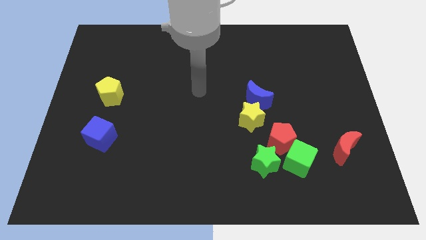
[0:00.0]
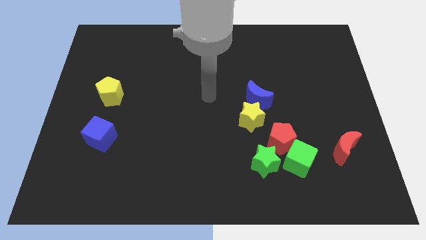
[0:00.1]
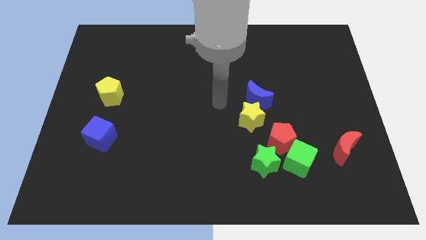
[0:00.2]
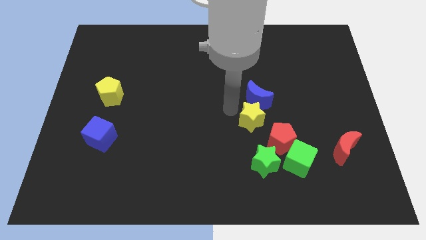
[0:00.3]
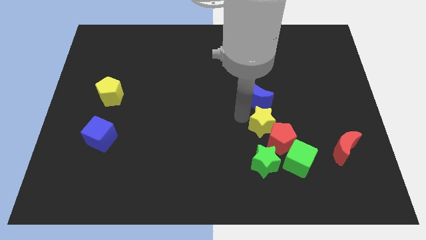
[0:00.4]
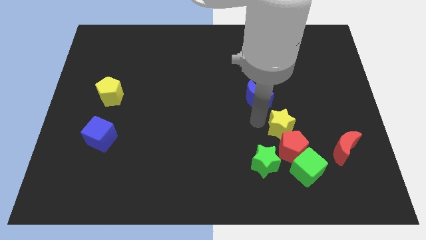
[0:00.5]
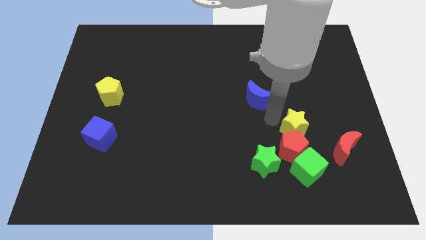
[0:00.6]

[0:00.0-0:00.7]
pull the blue moon apart from the yellow star

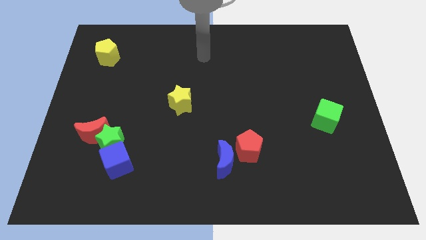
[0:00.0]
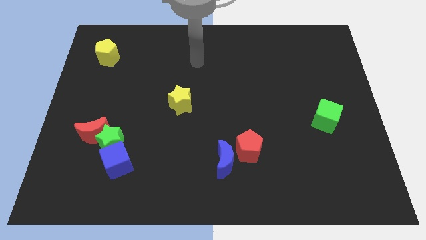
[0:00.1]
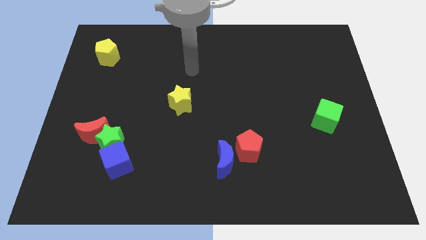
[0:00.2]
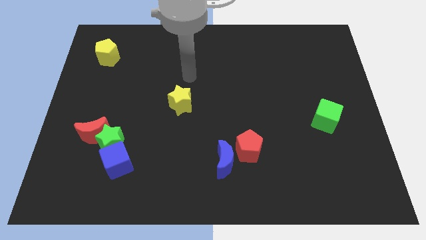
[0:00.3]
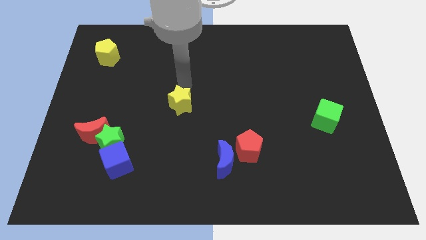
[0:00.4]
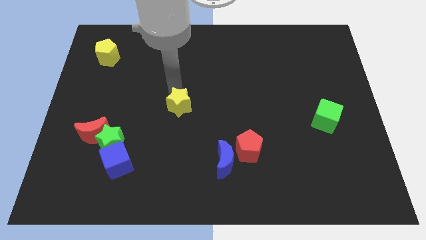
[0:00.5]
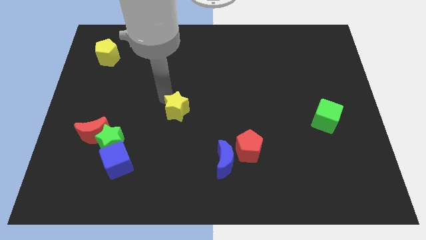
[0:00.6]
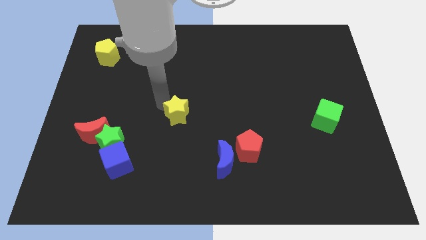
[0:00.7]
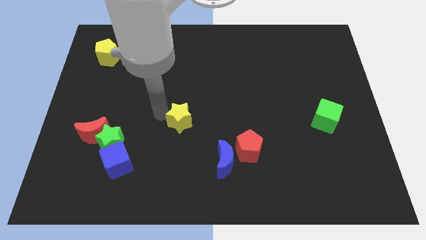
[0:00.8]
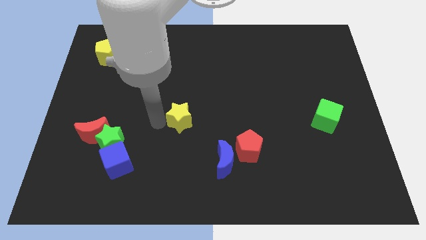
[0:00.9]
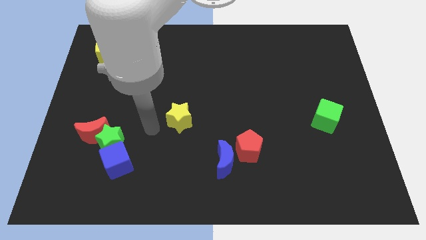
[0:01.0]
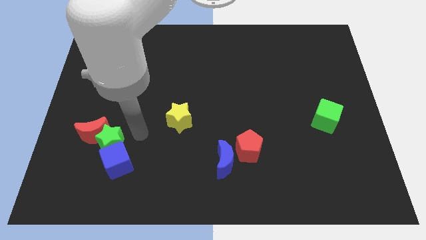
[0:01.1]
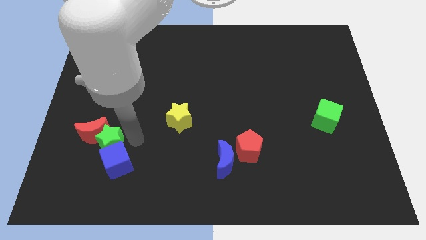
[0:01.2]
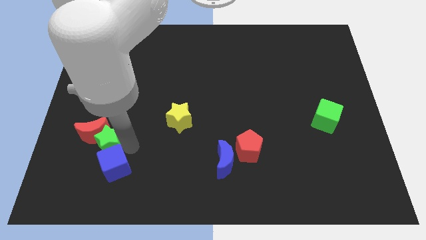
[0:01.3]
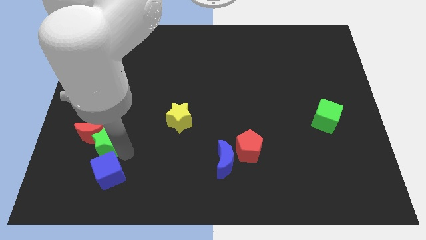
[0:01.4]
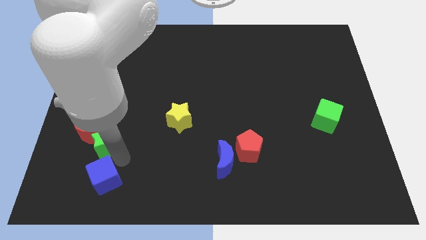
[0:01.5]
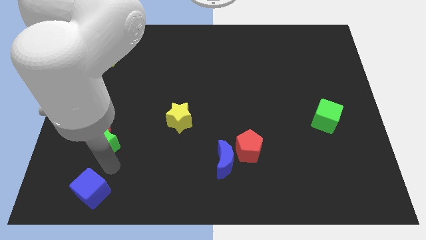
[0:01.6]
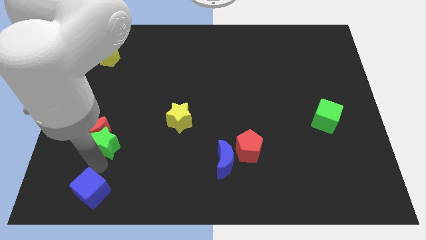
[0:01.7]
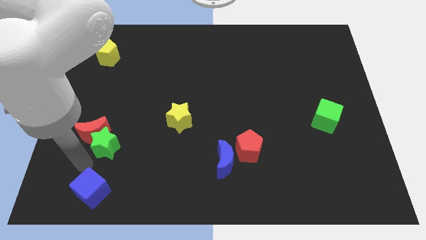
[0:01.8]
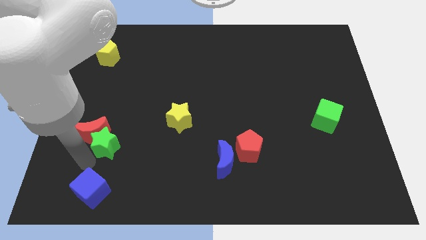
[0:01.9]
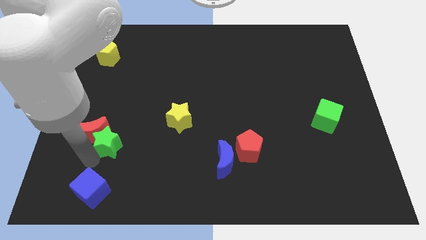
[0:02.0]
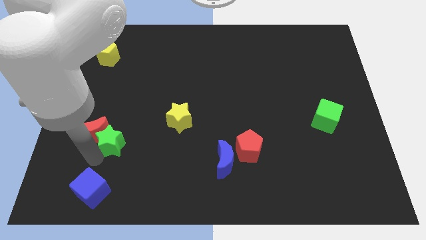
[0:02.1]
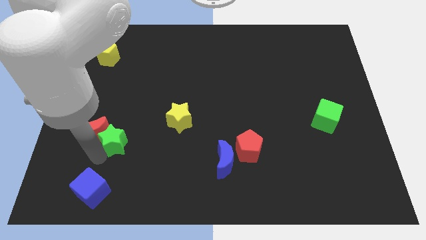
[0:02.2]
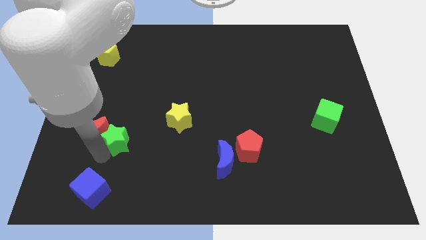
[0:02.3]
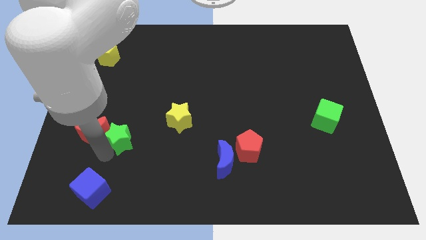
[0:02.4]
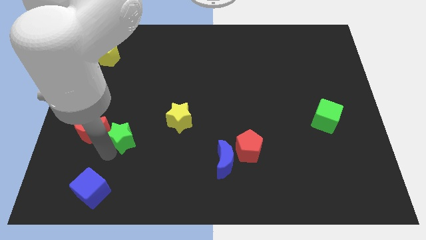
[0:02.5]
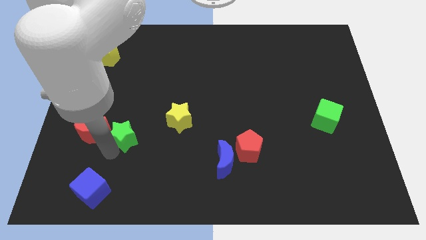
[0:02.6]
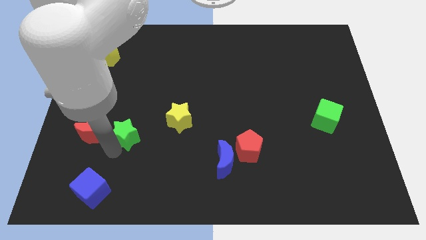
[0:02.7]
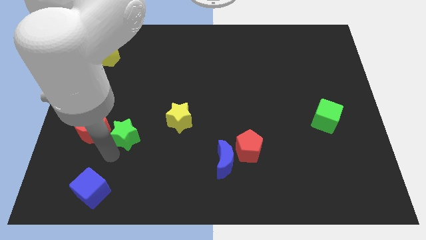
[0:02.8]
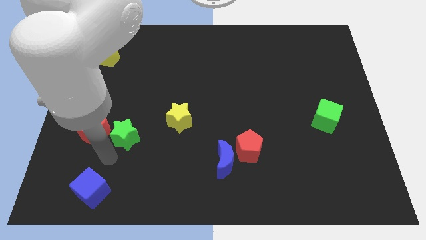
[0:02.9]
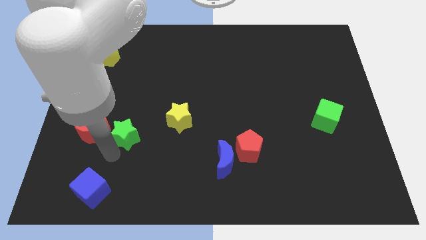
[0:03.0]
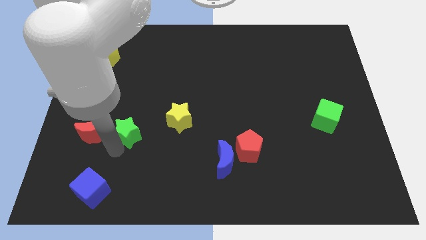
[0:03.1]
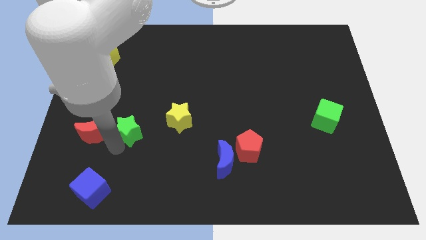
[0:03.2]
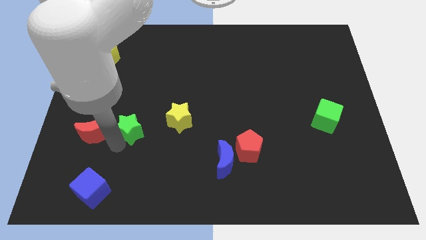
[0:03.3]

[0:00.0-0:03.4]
separate the green star from the red moon and blue cube

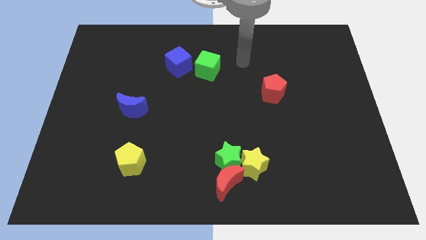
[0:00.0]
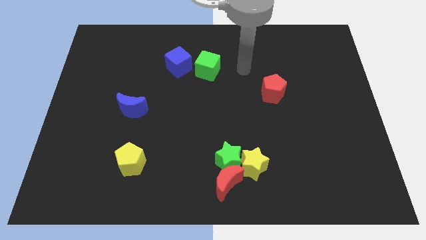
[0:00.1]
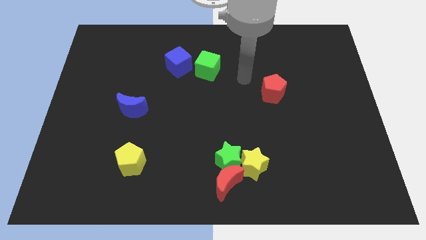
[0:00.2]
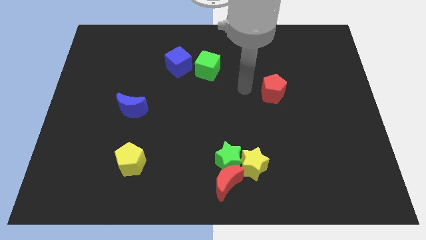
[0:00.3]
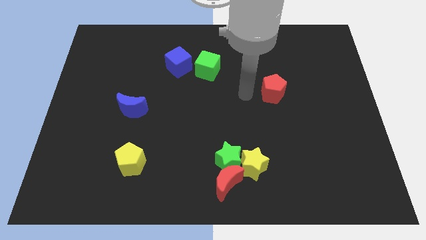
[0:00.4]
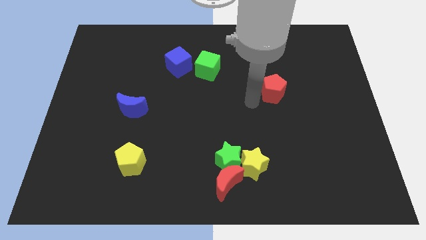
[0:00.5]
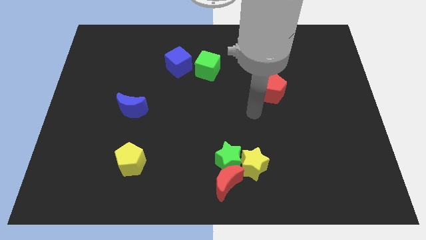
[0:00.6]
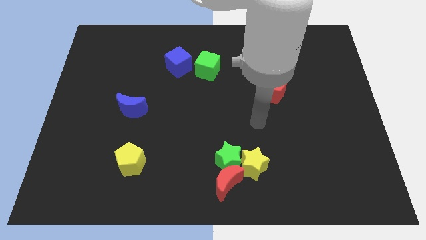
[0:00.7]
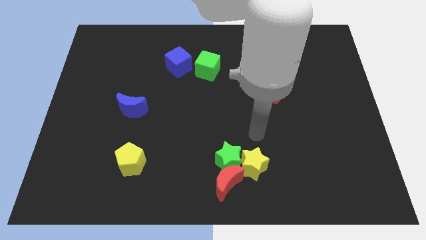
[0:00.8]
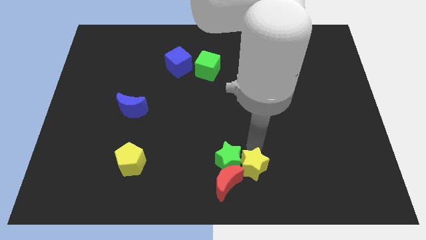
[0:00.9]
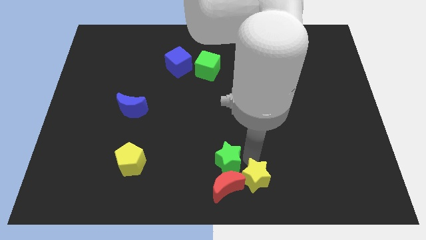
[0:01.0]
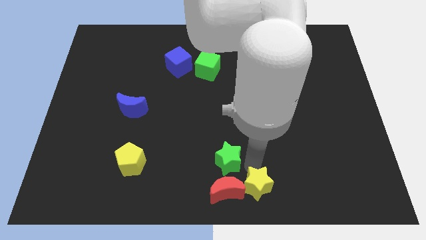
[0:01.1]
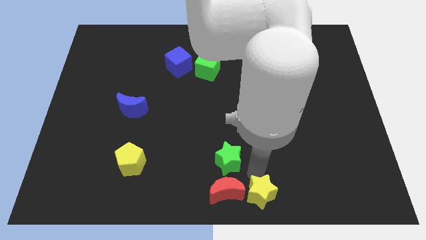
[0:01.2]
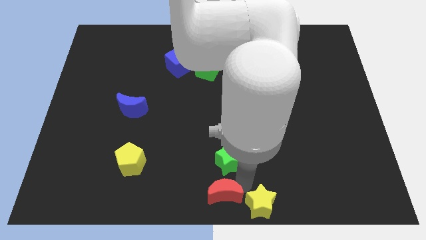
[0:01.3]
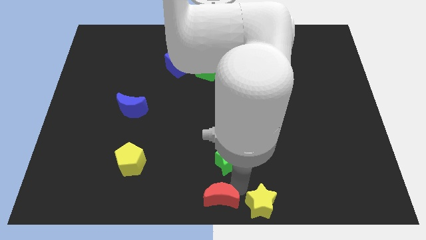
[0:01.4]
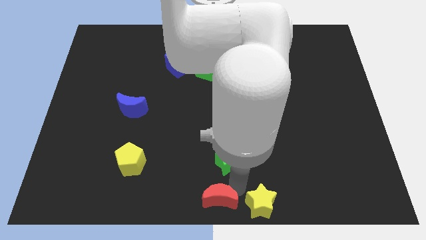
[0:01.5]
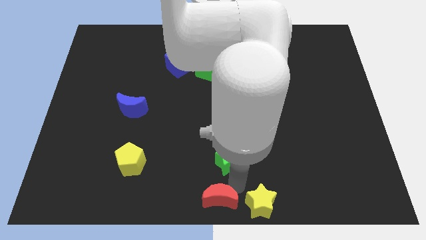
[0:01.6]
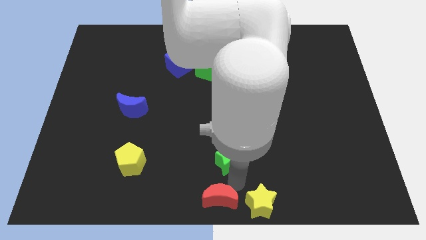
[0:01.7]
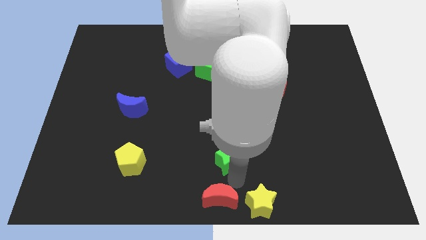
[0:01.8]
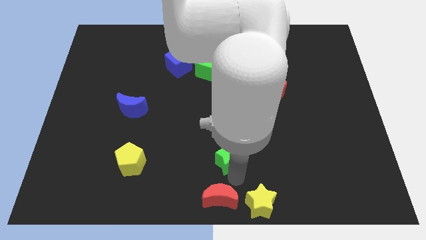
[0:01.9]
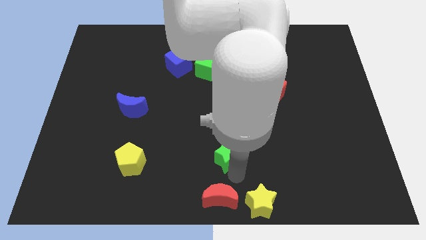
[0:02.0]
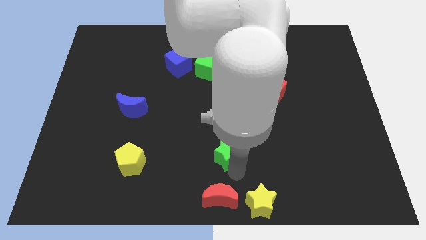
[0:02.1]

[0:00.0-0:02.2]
move the green star away from the red moon and yellow star

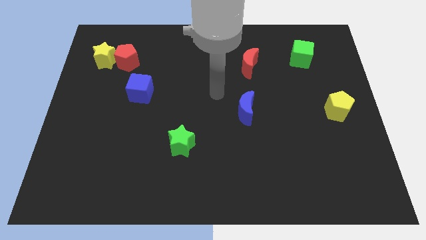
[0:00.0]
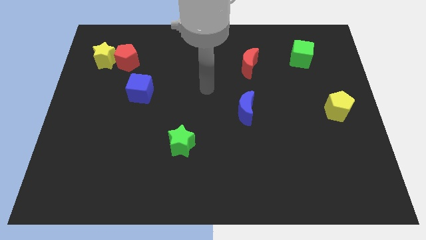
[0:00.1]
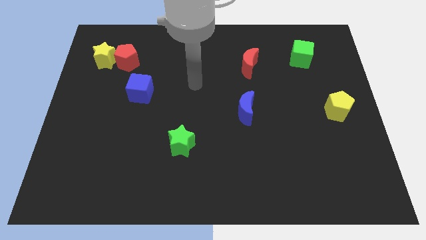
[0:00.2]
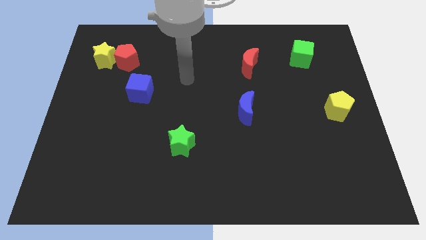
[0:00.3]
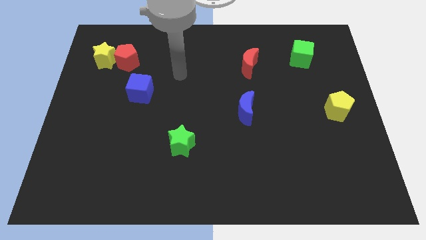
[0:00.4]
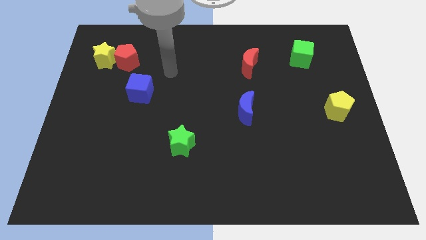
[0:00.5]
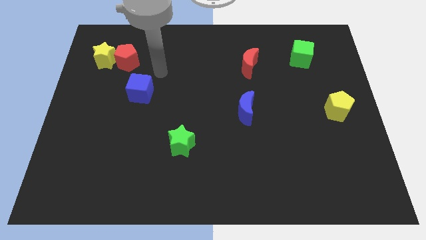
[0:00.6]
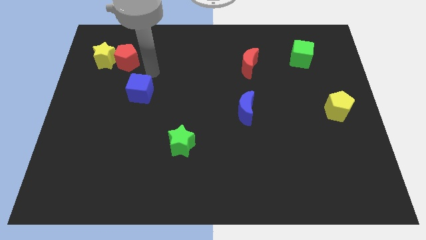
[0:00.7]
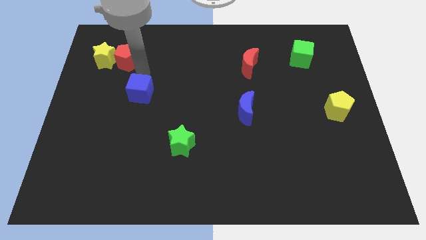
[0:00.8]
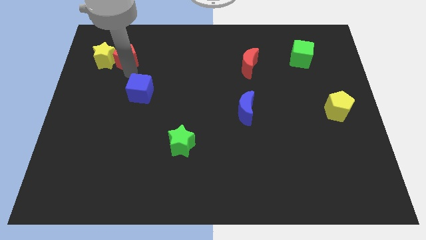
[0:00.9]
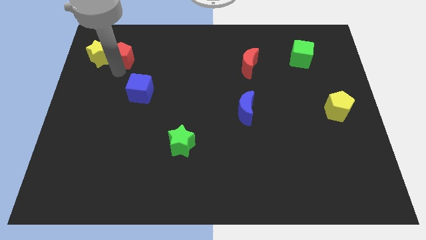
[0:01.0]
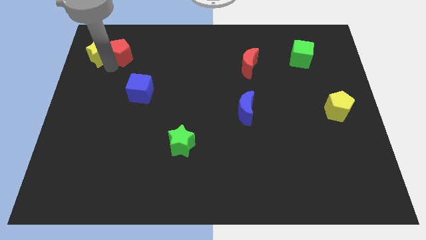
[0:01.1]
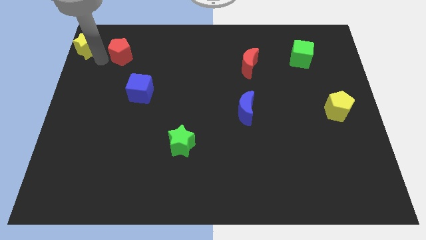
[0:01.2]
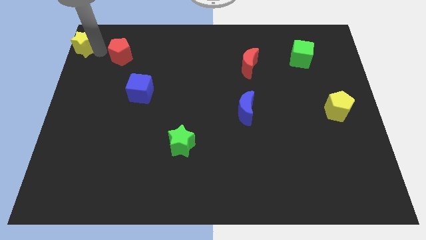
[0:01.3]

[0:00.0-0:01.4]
move the red pentagon away from the yellow star

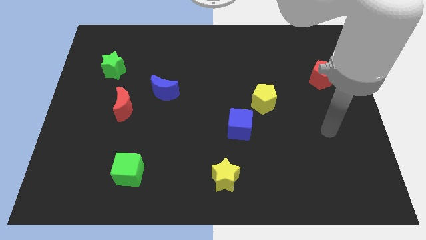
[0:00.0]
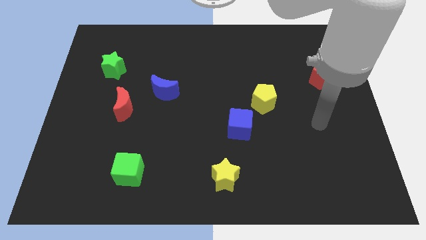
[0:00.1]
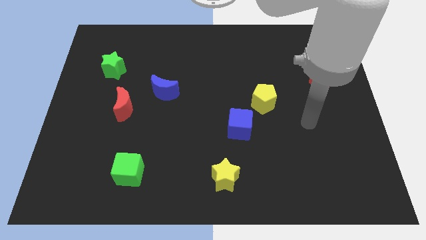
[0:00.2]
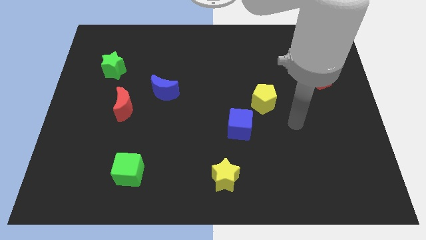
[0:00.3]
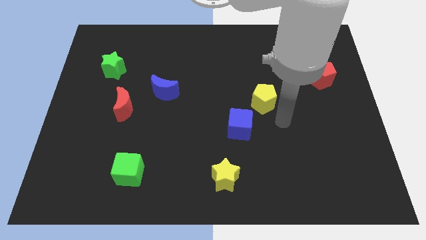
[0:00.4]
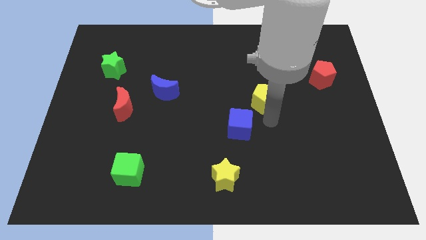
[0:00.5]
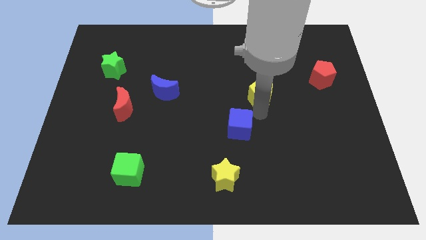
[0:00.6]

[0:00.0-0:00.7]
move the blue cube away from the yellow pentagon

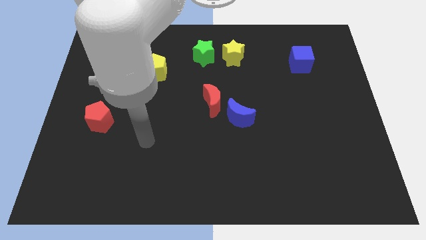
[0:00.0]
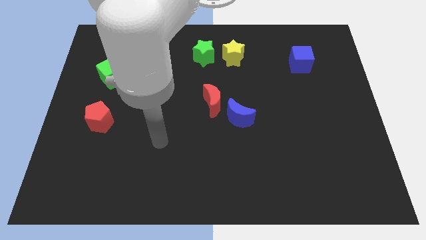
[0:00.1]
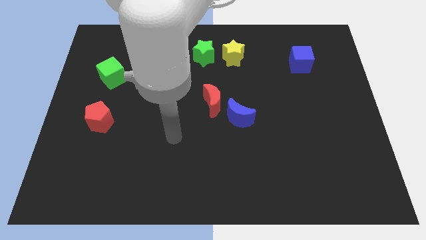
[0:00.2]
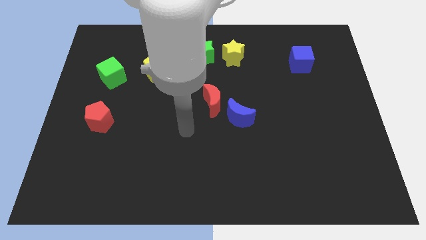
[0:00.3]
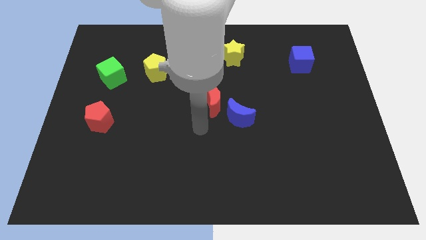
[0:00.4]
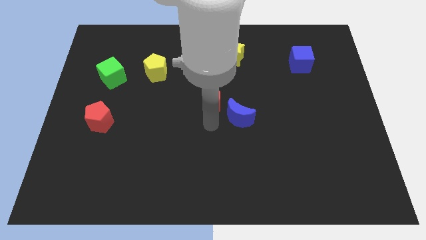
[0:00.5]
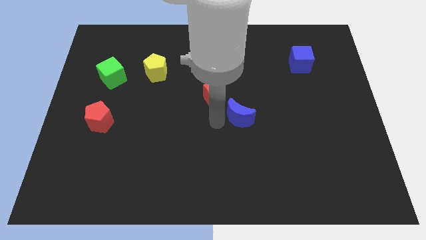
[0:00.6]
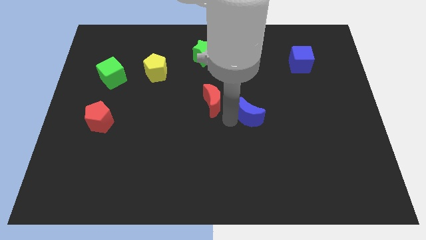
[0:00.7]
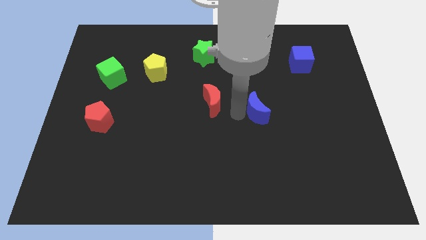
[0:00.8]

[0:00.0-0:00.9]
separate the red moon from the blue moon

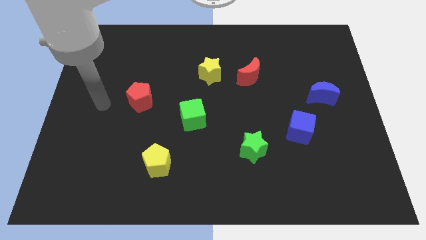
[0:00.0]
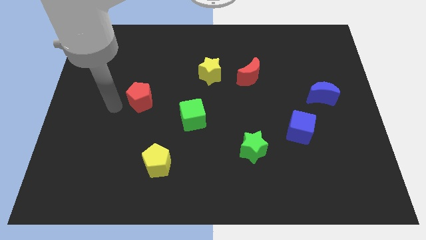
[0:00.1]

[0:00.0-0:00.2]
separate the red moon from the yellow star
